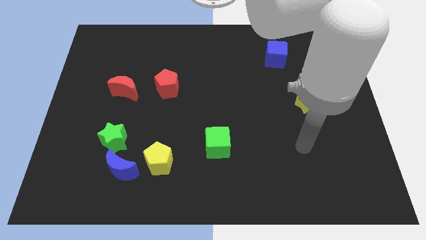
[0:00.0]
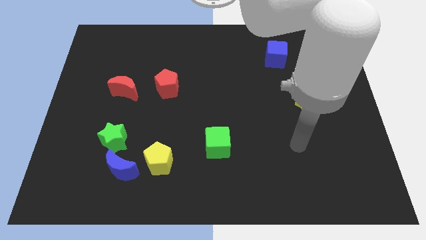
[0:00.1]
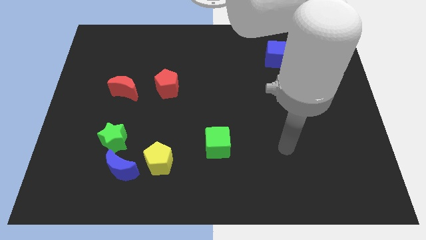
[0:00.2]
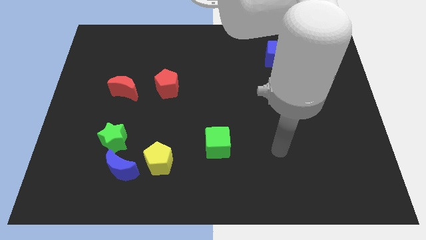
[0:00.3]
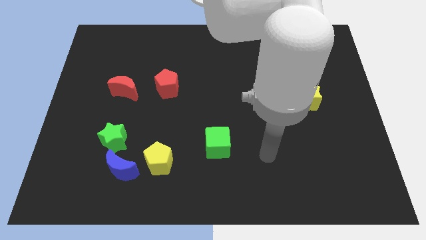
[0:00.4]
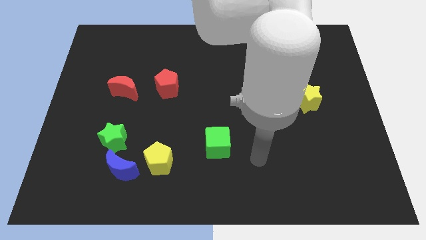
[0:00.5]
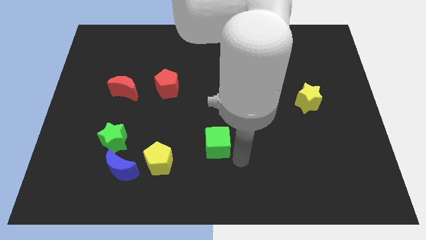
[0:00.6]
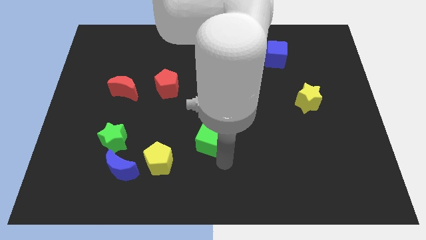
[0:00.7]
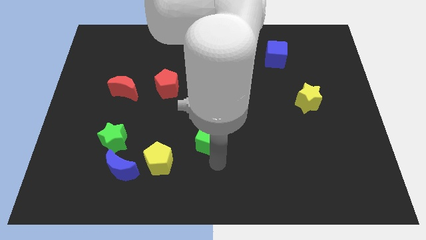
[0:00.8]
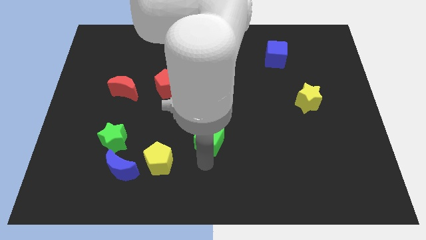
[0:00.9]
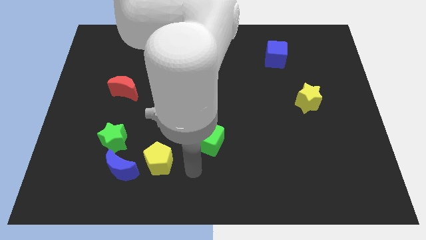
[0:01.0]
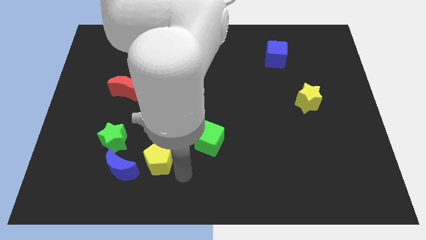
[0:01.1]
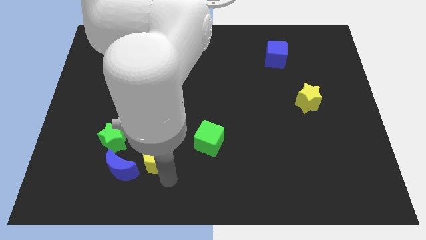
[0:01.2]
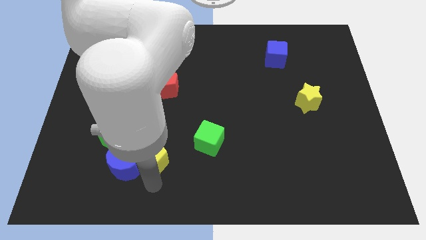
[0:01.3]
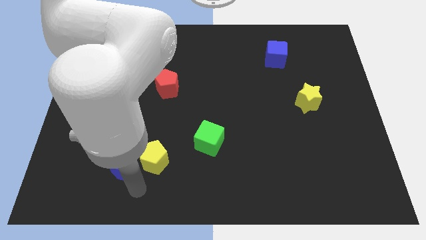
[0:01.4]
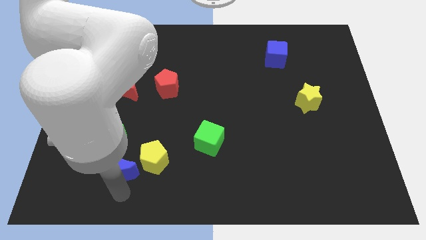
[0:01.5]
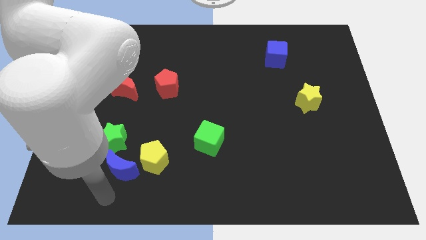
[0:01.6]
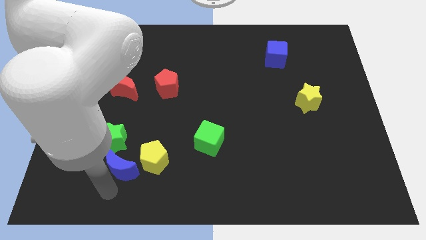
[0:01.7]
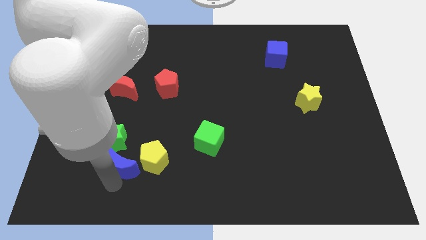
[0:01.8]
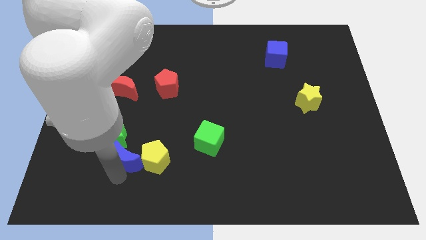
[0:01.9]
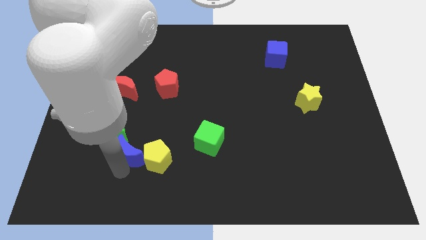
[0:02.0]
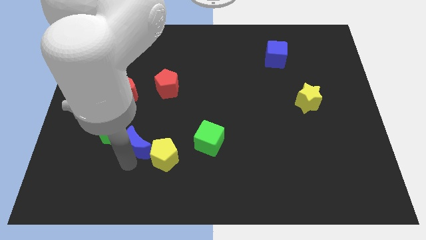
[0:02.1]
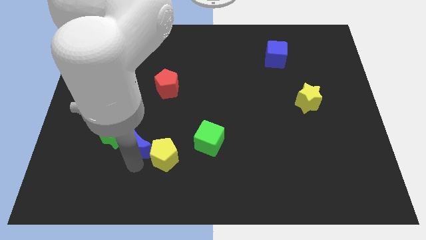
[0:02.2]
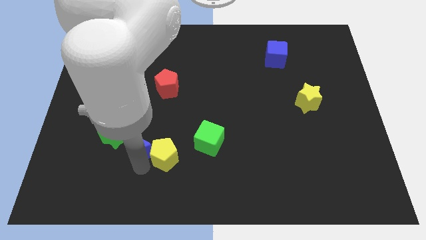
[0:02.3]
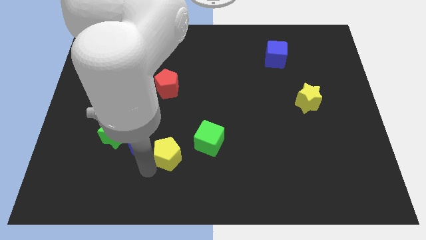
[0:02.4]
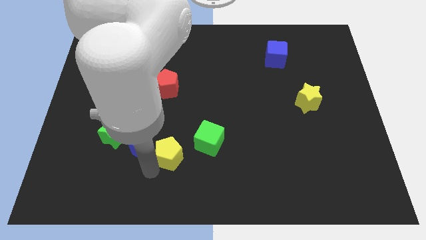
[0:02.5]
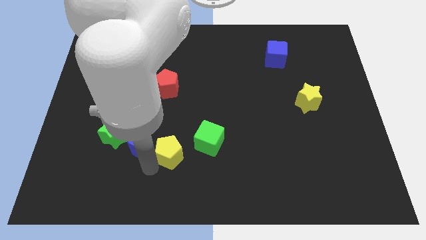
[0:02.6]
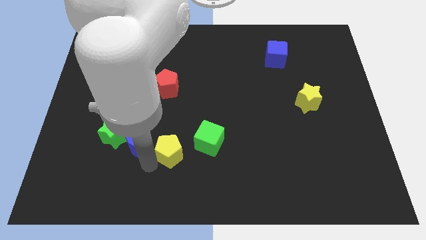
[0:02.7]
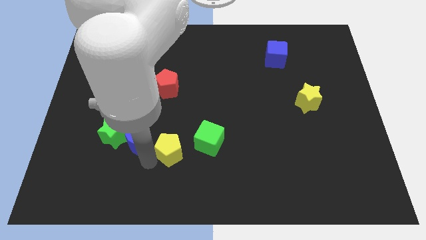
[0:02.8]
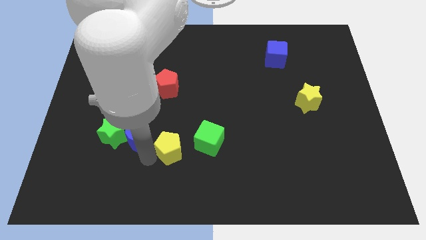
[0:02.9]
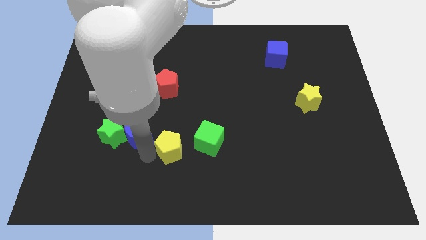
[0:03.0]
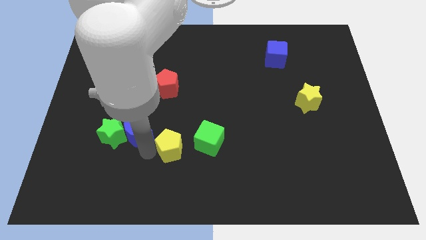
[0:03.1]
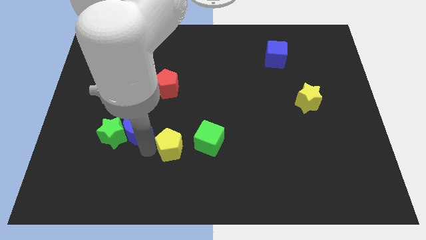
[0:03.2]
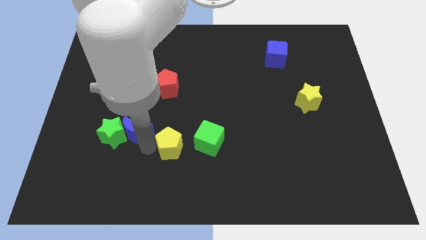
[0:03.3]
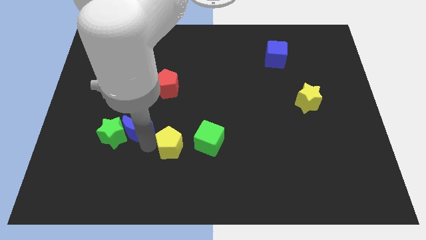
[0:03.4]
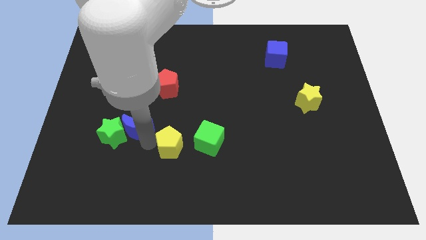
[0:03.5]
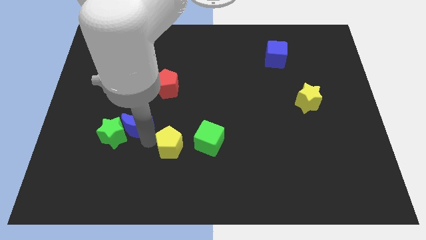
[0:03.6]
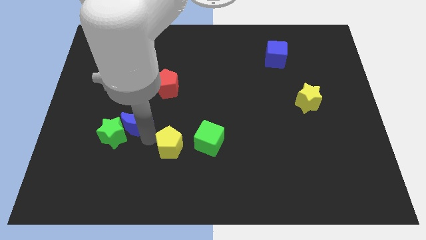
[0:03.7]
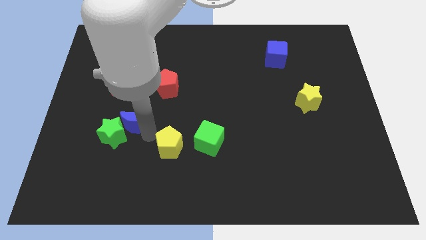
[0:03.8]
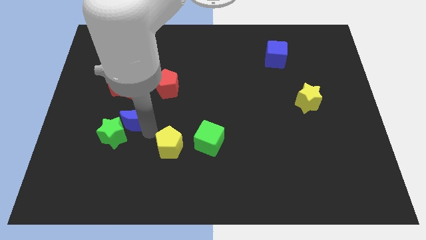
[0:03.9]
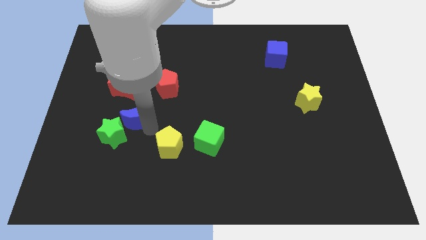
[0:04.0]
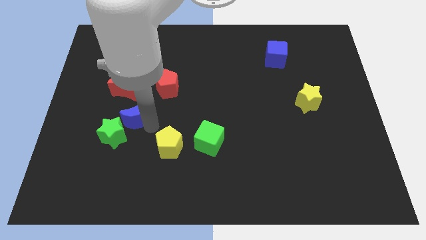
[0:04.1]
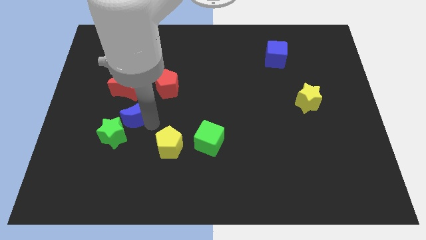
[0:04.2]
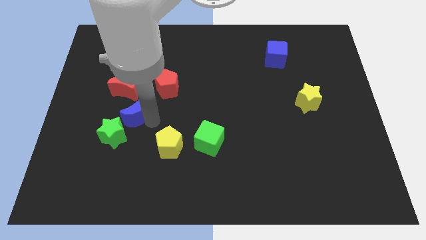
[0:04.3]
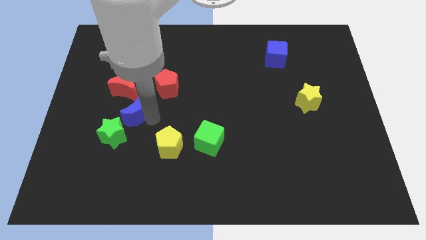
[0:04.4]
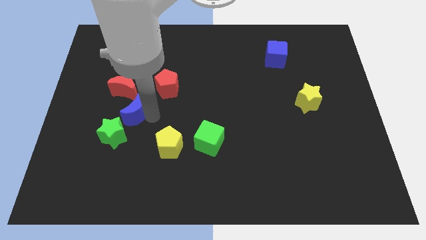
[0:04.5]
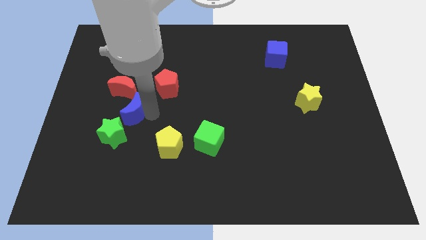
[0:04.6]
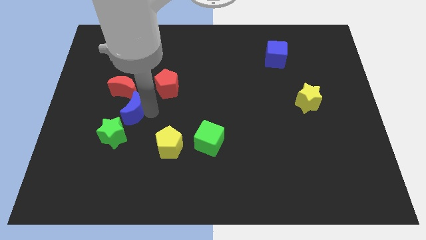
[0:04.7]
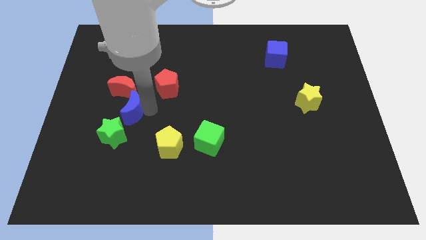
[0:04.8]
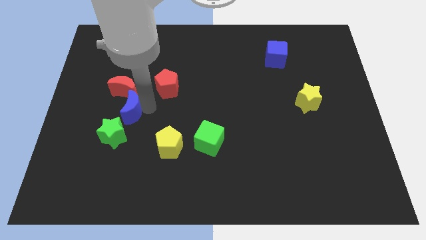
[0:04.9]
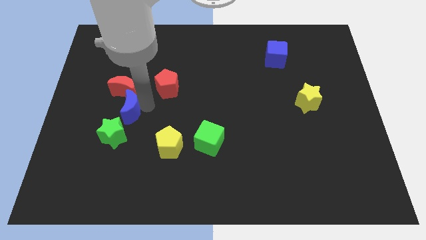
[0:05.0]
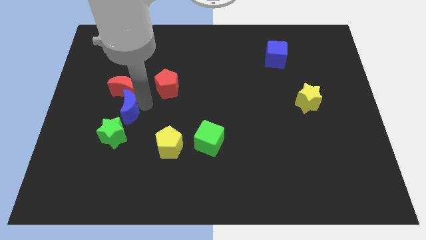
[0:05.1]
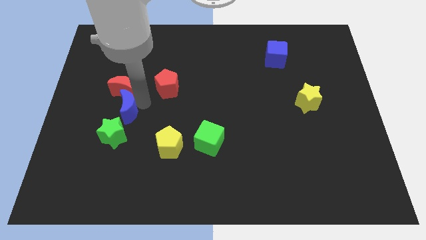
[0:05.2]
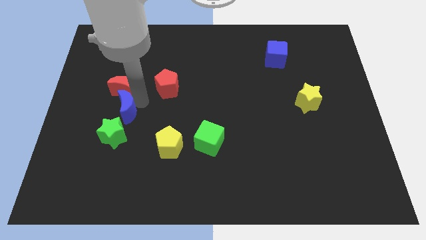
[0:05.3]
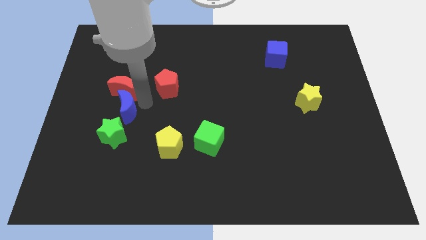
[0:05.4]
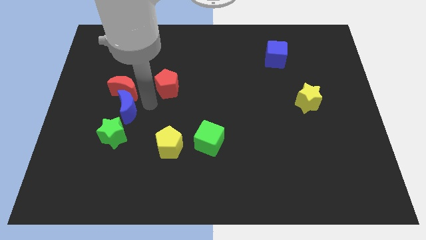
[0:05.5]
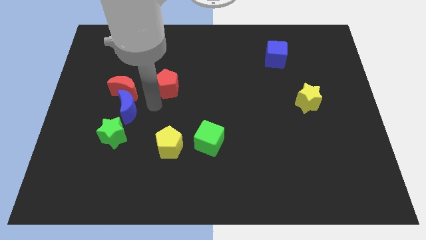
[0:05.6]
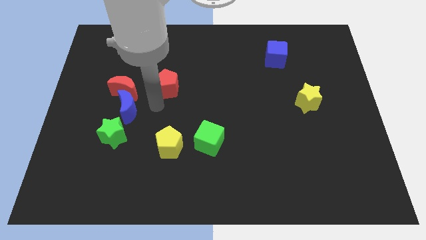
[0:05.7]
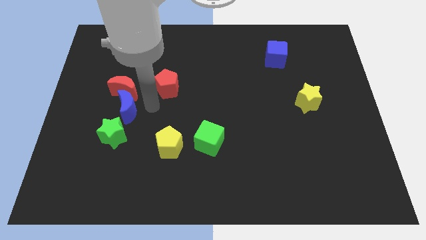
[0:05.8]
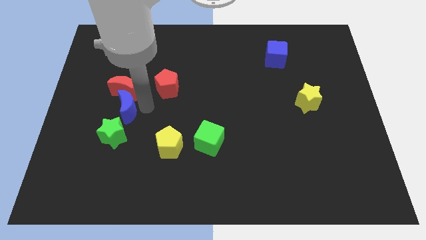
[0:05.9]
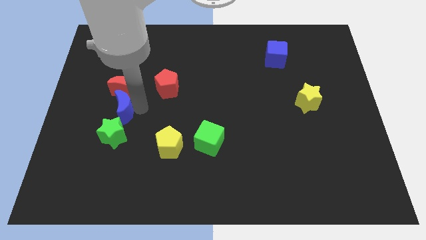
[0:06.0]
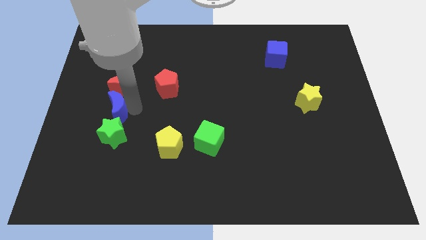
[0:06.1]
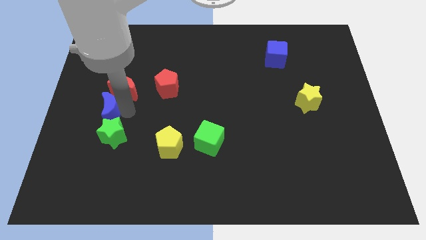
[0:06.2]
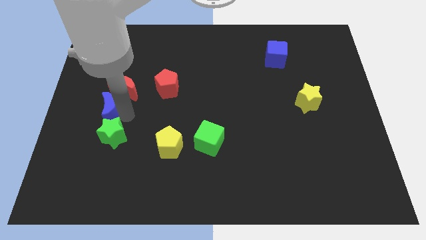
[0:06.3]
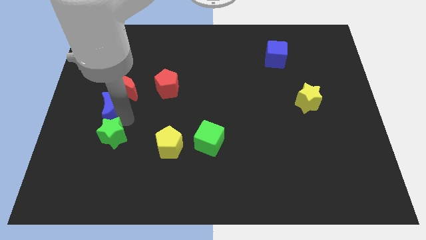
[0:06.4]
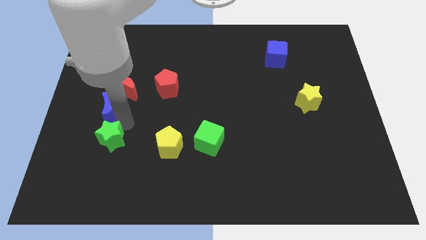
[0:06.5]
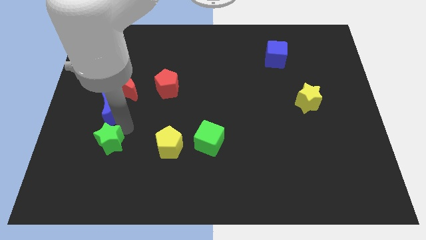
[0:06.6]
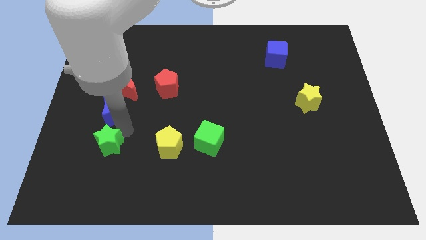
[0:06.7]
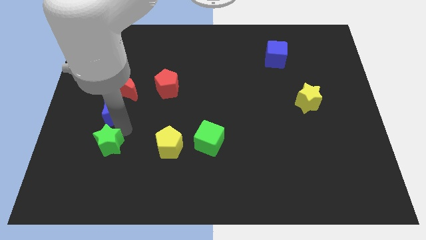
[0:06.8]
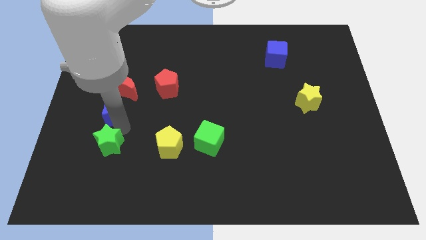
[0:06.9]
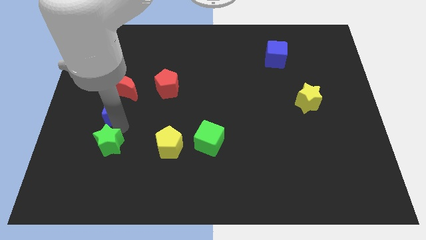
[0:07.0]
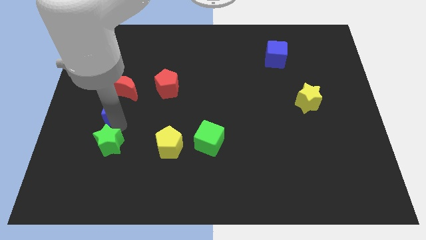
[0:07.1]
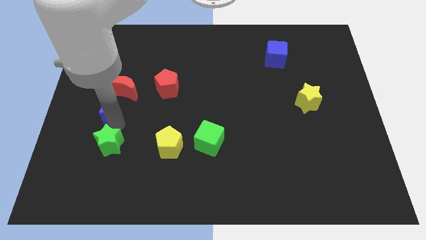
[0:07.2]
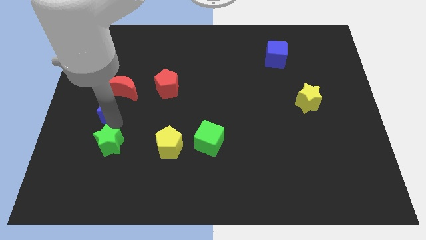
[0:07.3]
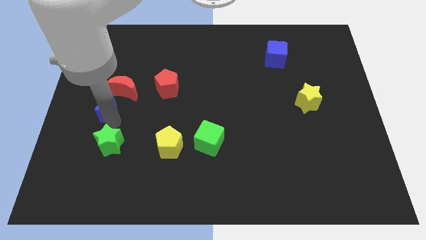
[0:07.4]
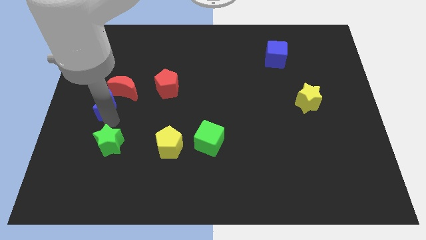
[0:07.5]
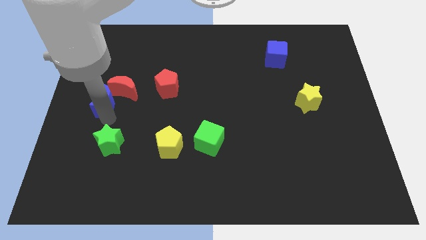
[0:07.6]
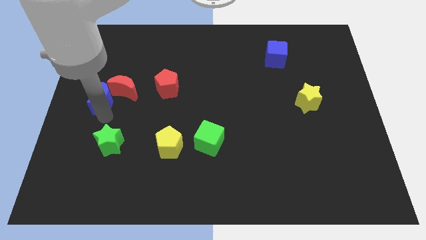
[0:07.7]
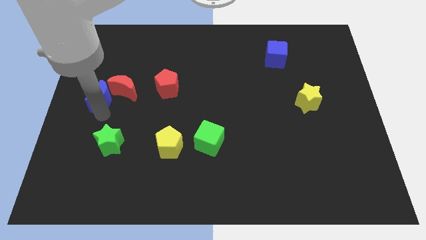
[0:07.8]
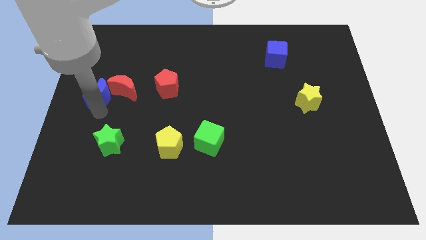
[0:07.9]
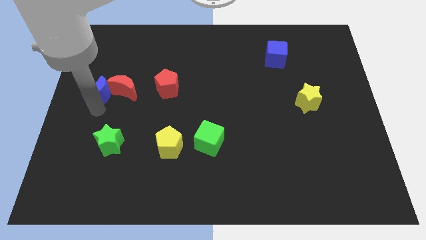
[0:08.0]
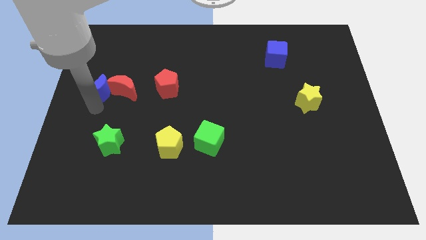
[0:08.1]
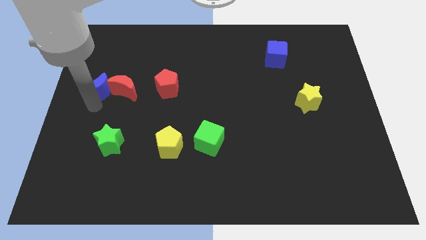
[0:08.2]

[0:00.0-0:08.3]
put the blue moon diagonally up and to the left of the red moon
